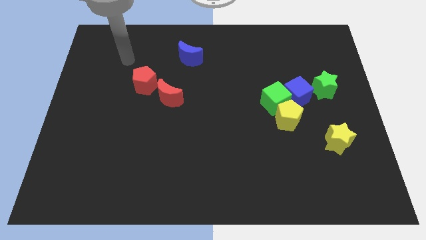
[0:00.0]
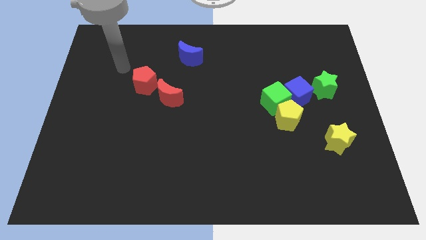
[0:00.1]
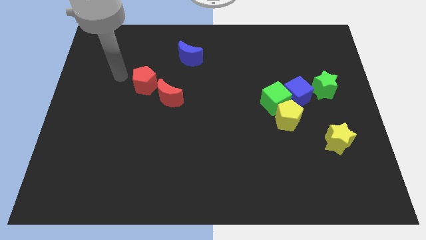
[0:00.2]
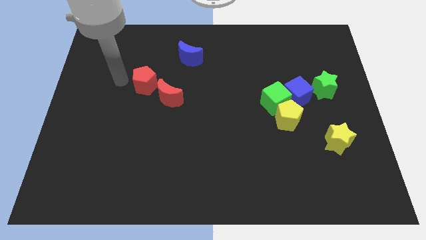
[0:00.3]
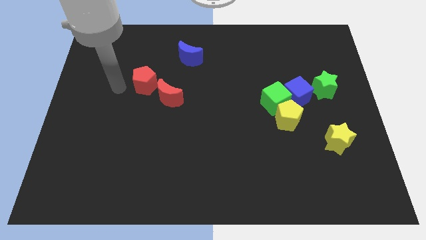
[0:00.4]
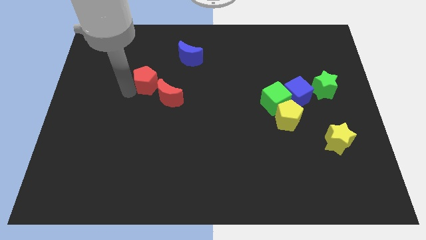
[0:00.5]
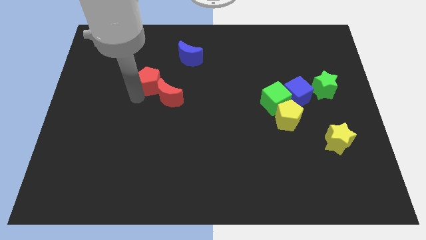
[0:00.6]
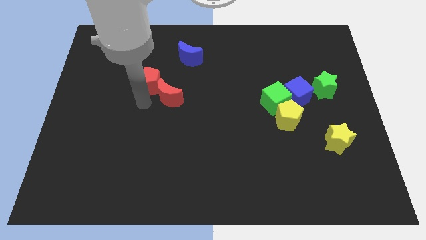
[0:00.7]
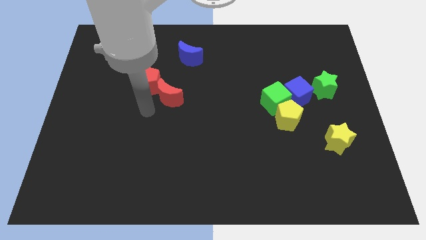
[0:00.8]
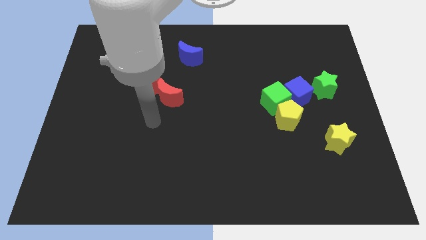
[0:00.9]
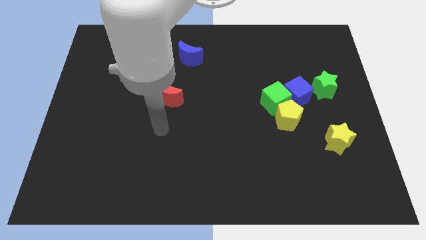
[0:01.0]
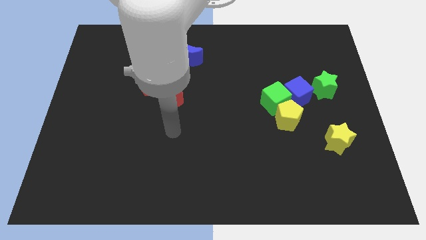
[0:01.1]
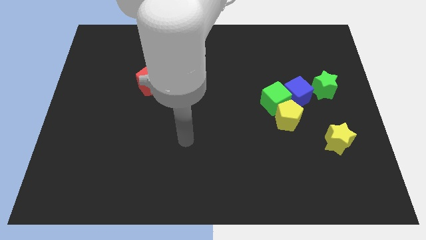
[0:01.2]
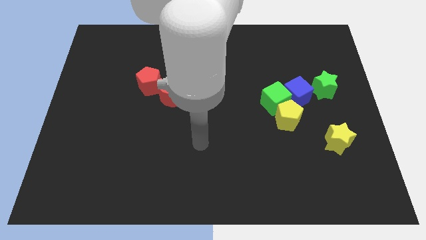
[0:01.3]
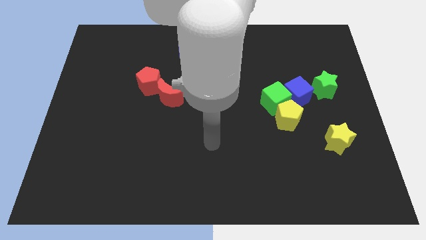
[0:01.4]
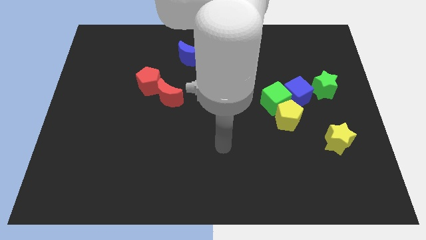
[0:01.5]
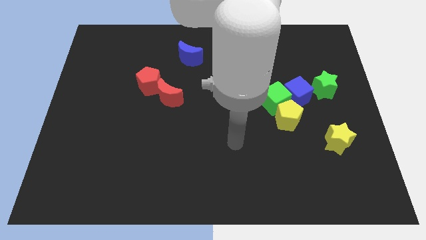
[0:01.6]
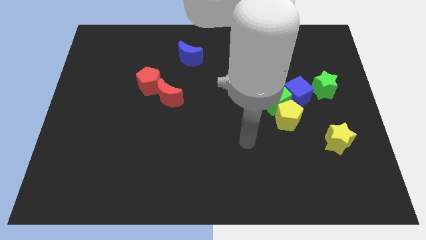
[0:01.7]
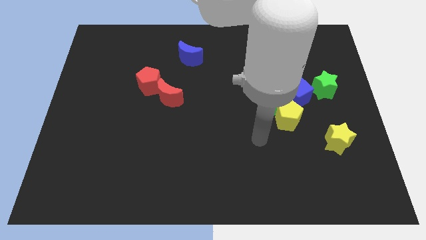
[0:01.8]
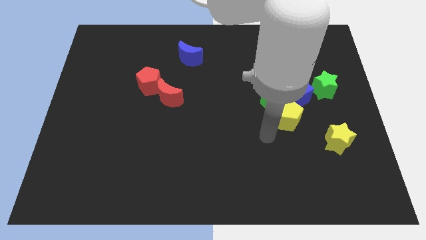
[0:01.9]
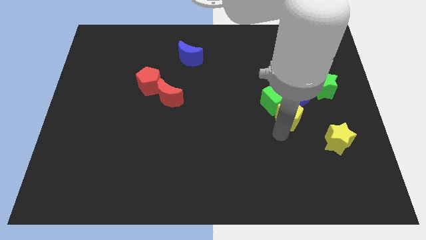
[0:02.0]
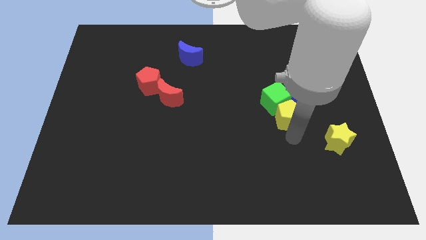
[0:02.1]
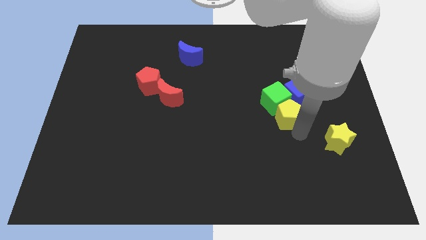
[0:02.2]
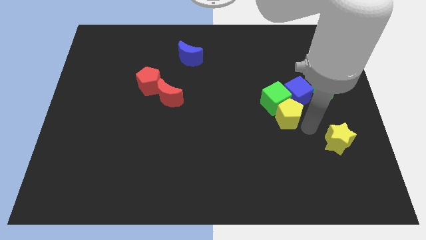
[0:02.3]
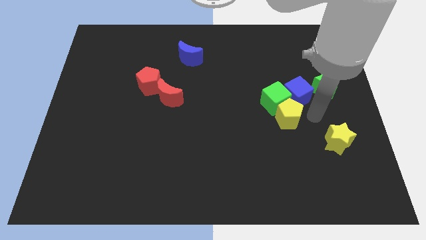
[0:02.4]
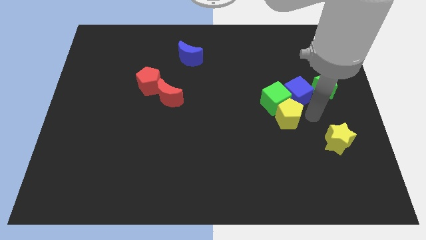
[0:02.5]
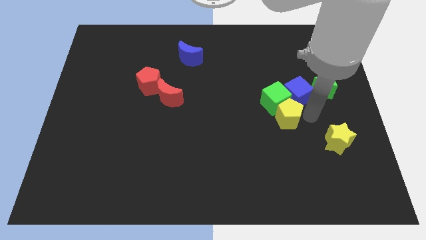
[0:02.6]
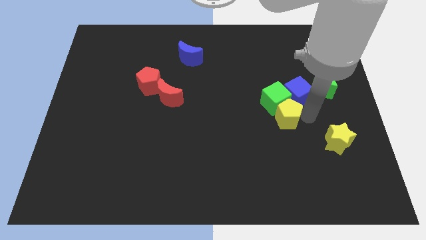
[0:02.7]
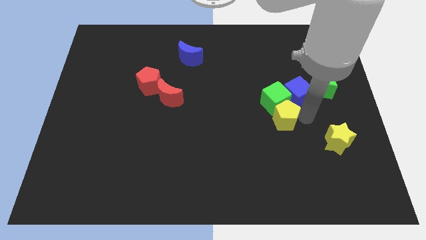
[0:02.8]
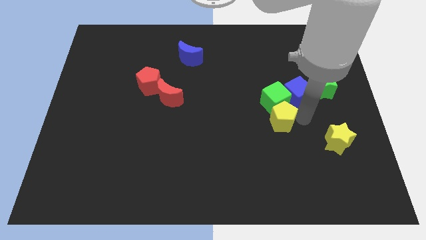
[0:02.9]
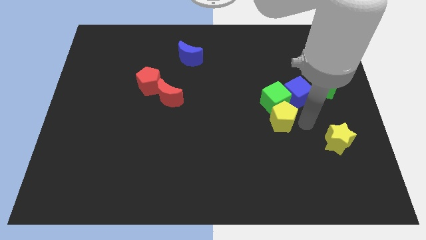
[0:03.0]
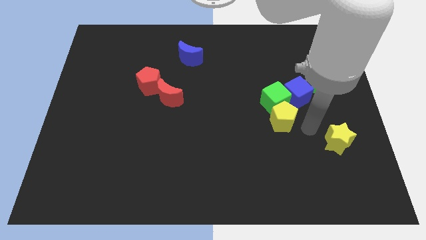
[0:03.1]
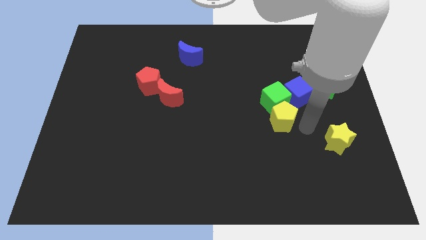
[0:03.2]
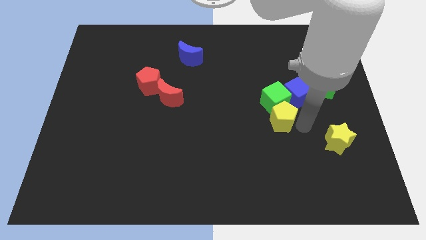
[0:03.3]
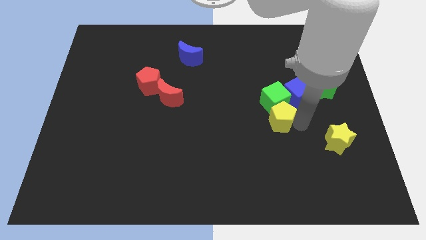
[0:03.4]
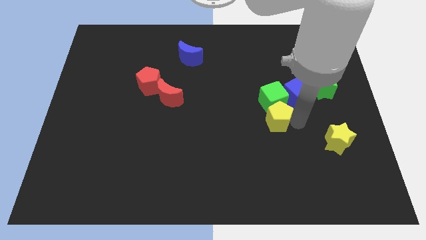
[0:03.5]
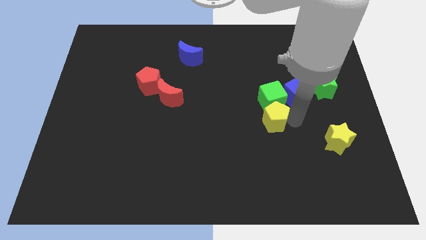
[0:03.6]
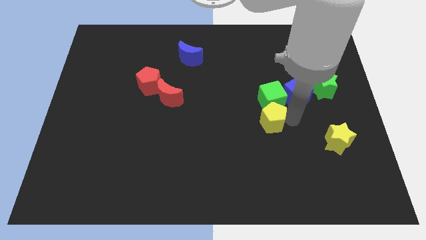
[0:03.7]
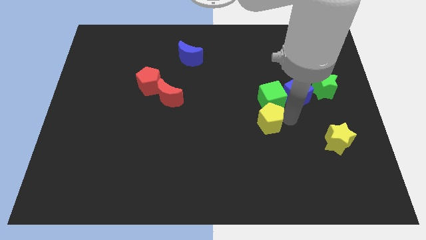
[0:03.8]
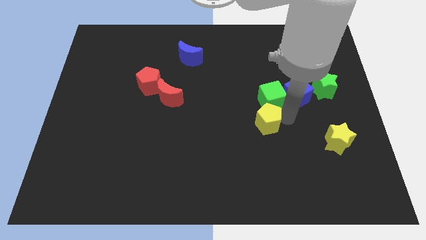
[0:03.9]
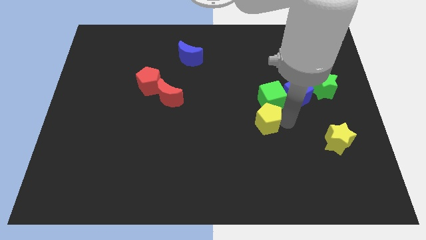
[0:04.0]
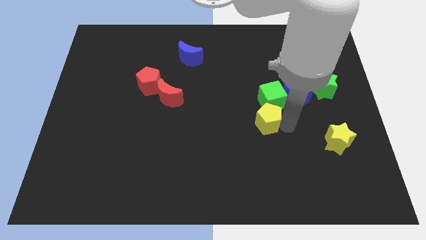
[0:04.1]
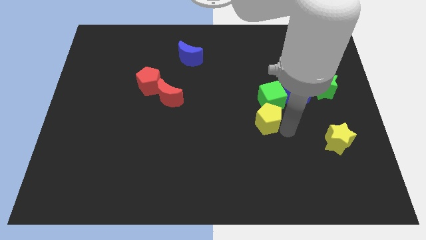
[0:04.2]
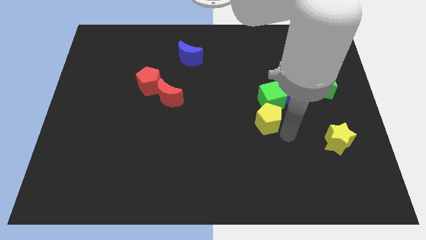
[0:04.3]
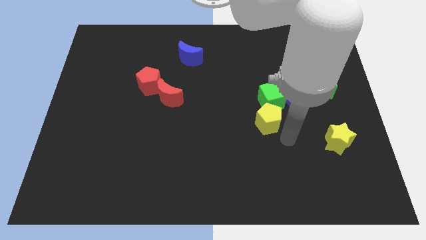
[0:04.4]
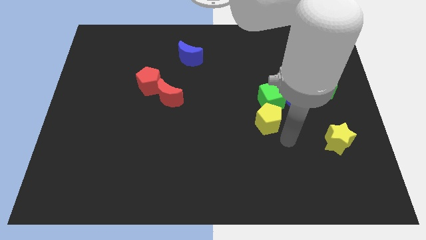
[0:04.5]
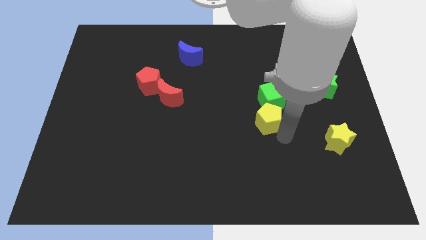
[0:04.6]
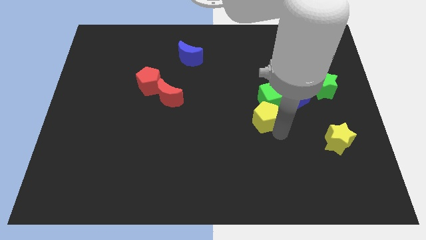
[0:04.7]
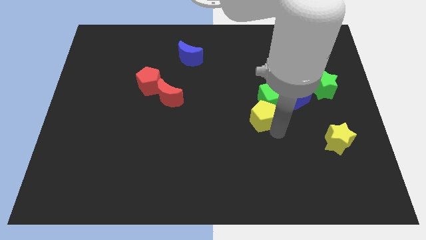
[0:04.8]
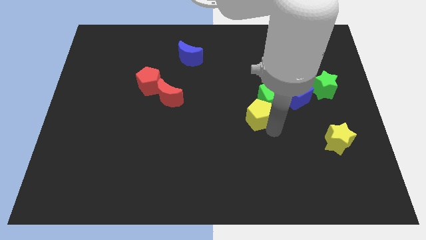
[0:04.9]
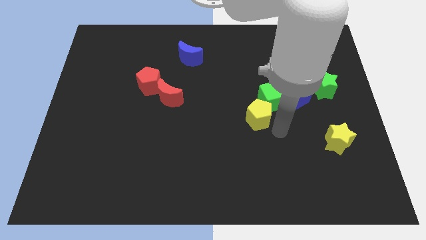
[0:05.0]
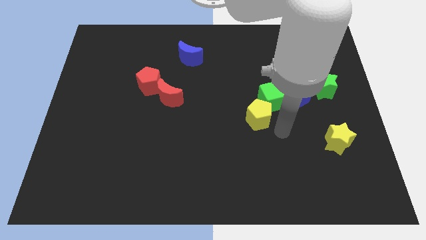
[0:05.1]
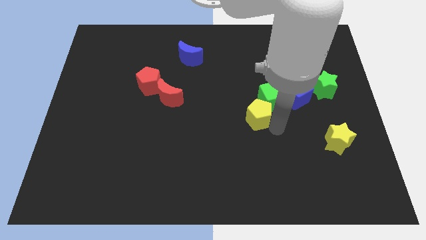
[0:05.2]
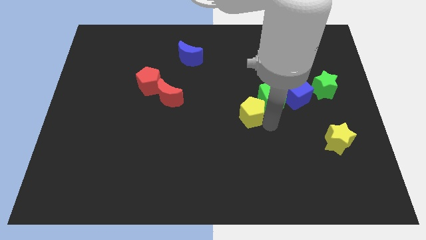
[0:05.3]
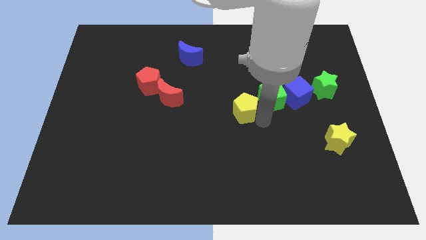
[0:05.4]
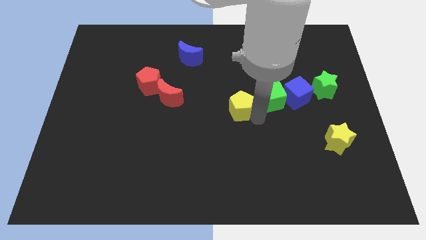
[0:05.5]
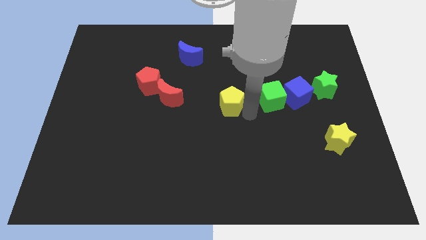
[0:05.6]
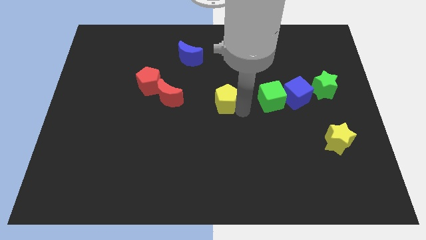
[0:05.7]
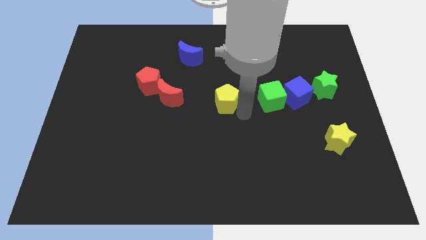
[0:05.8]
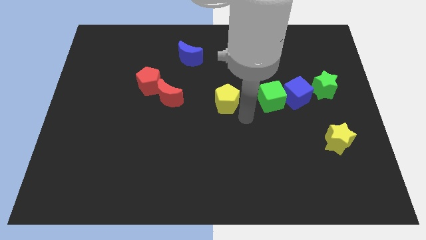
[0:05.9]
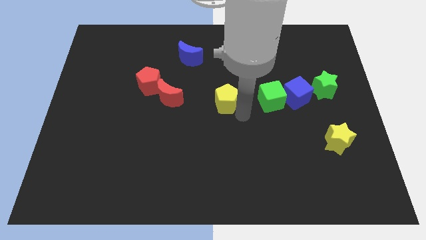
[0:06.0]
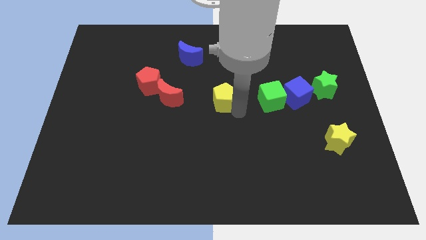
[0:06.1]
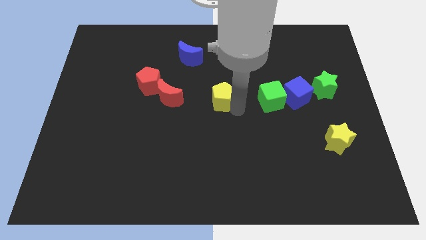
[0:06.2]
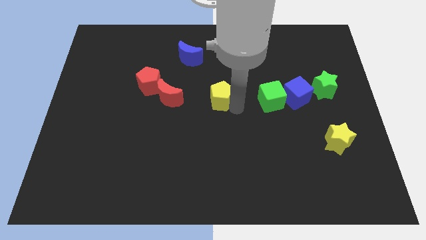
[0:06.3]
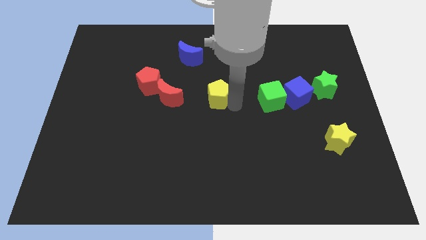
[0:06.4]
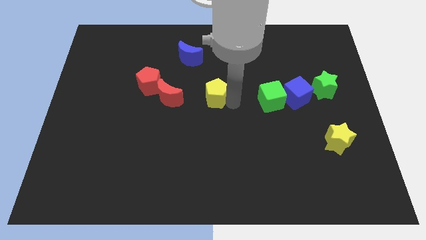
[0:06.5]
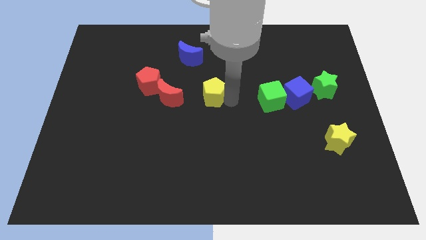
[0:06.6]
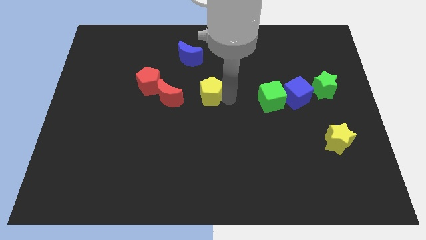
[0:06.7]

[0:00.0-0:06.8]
push the yellow pentagon to the right side of the red pentagon

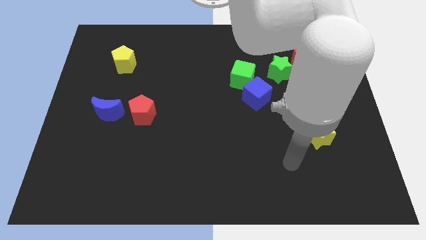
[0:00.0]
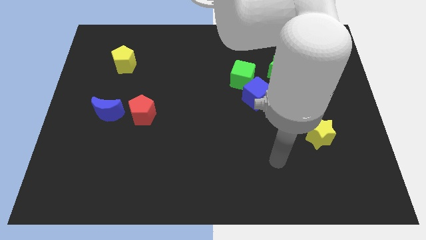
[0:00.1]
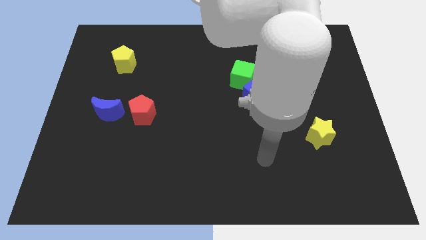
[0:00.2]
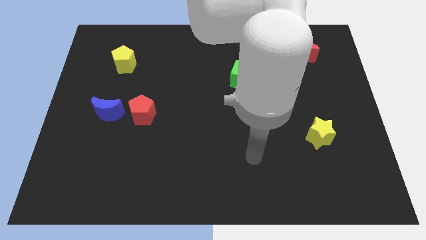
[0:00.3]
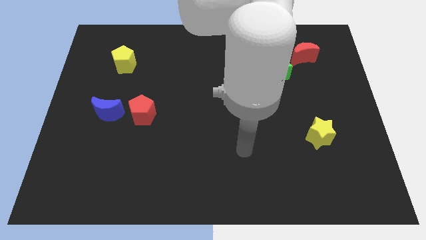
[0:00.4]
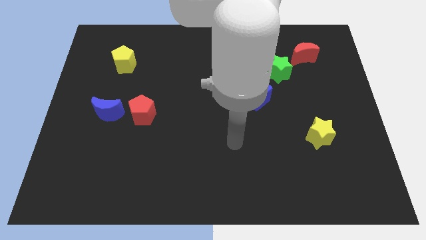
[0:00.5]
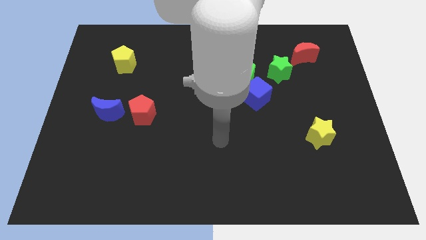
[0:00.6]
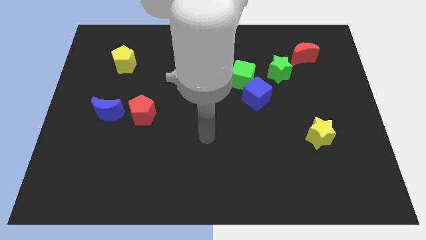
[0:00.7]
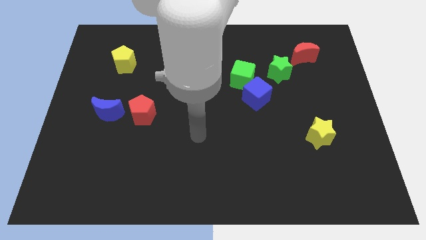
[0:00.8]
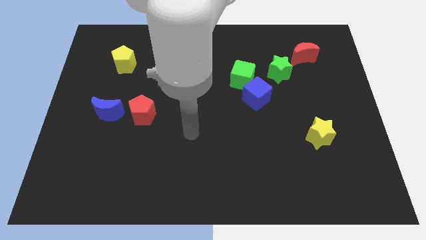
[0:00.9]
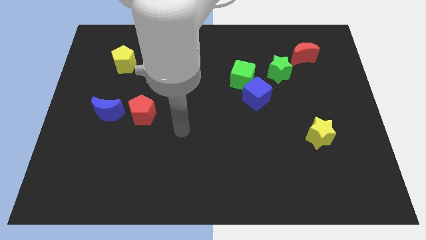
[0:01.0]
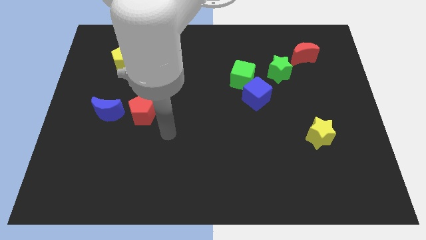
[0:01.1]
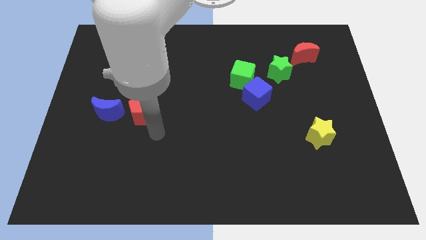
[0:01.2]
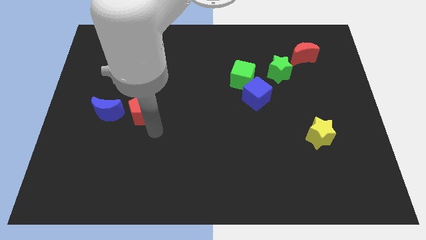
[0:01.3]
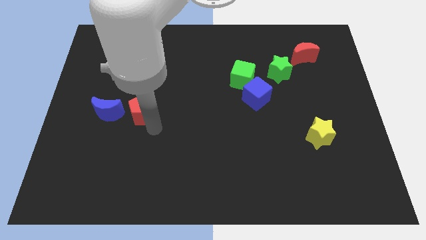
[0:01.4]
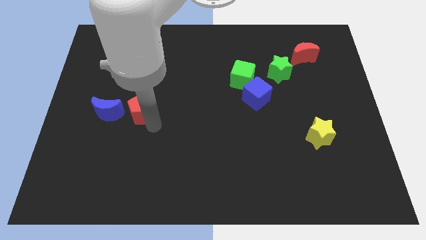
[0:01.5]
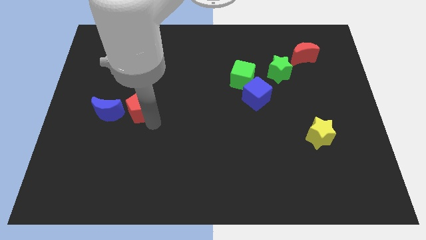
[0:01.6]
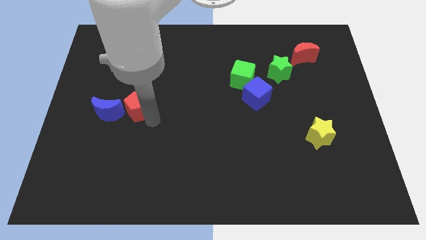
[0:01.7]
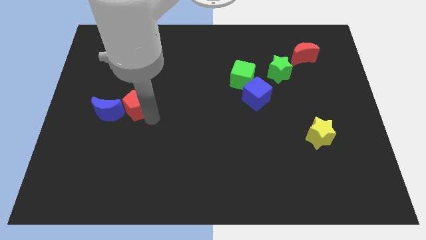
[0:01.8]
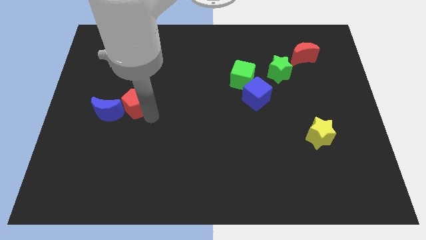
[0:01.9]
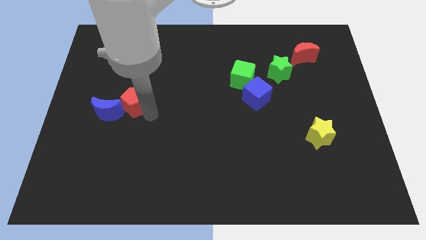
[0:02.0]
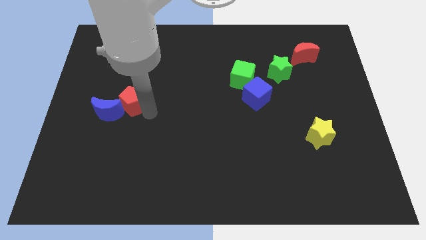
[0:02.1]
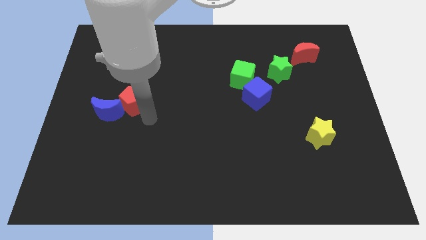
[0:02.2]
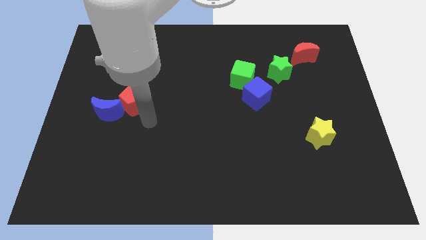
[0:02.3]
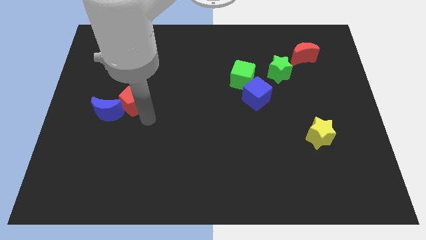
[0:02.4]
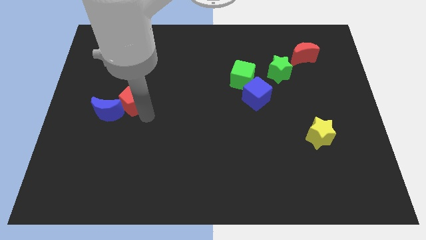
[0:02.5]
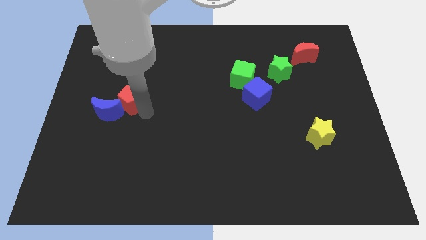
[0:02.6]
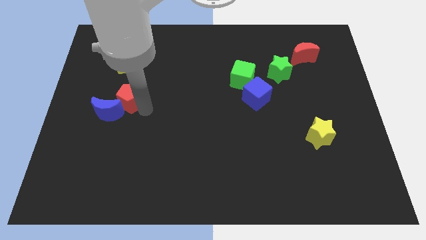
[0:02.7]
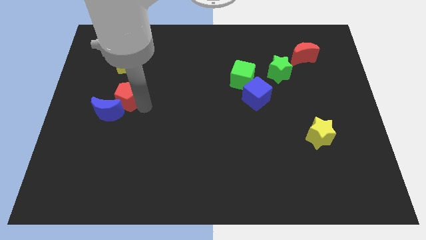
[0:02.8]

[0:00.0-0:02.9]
push the red pentagon to the top side of the blue moon
